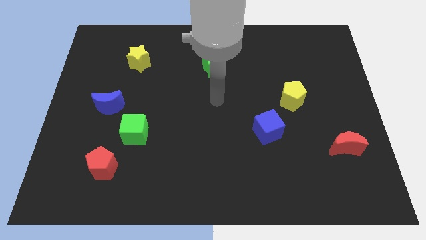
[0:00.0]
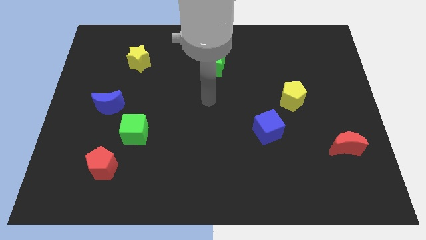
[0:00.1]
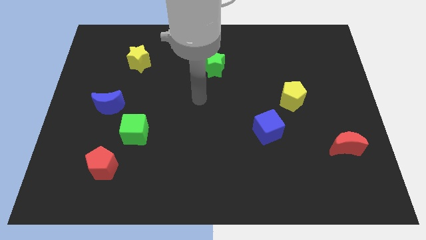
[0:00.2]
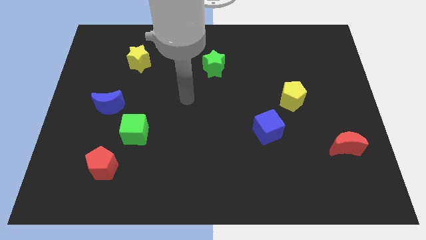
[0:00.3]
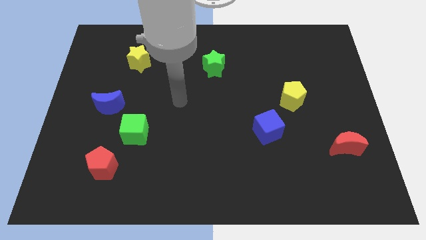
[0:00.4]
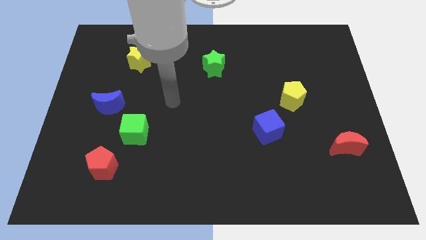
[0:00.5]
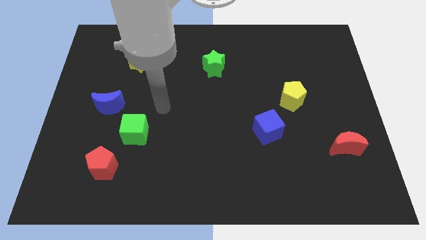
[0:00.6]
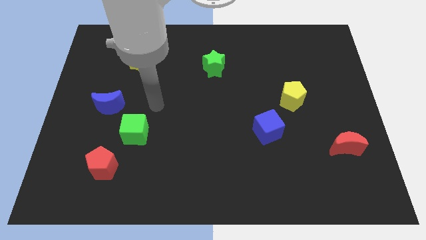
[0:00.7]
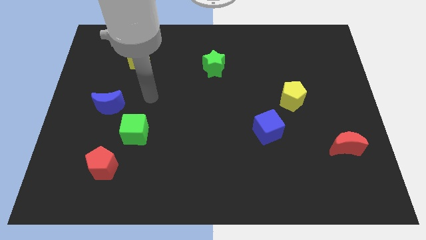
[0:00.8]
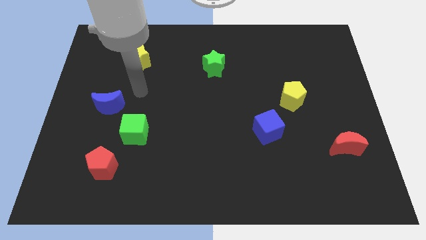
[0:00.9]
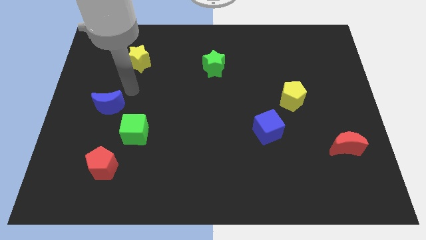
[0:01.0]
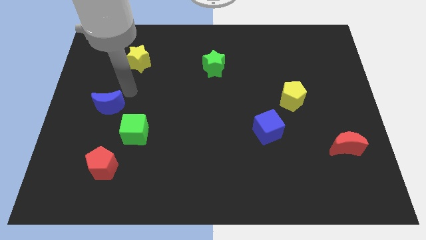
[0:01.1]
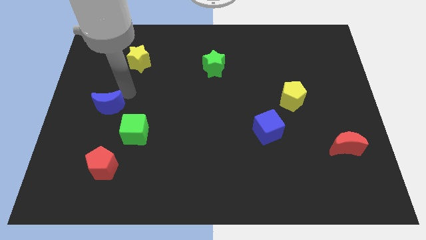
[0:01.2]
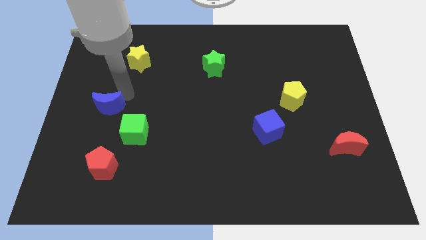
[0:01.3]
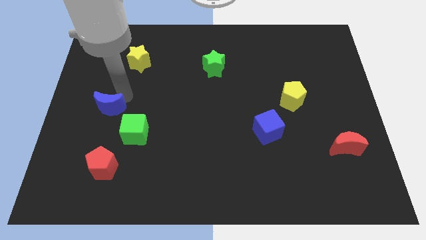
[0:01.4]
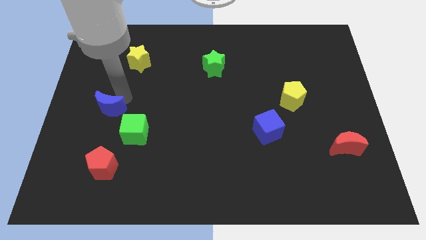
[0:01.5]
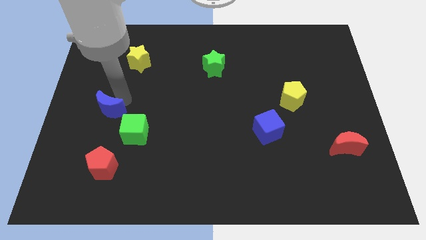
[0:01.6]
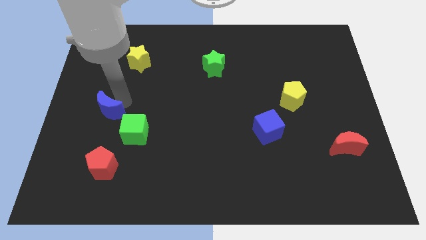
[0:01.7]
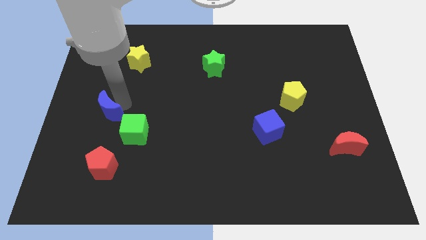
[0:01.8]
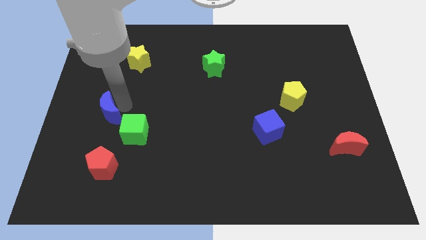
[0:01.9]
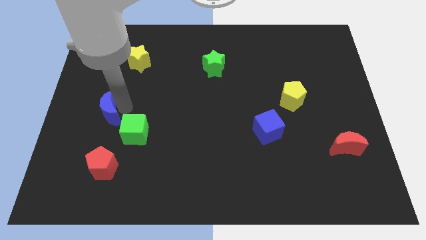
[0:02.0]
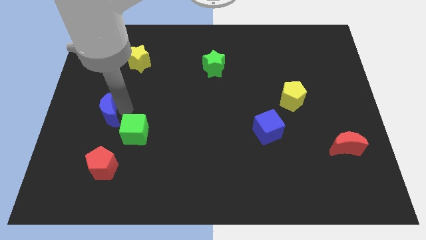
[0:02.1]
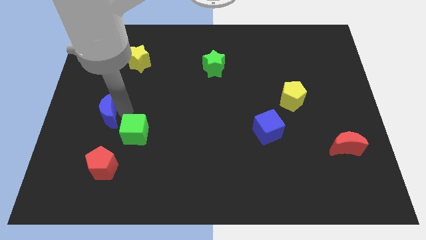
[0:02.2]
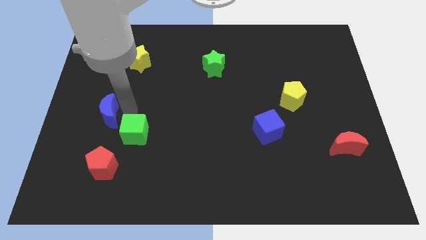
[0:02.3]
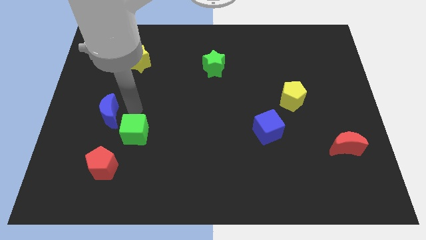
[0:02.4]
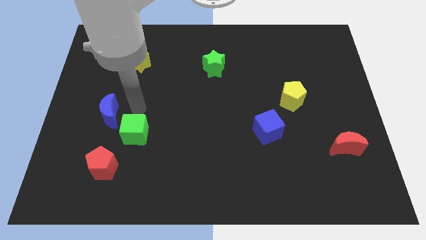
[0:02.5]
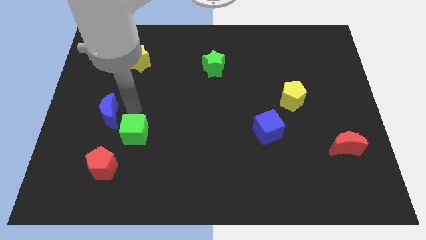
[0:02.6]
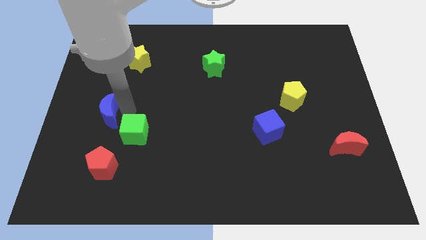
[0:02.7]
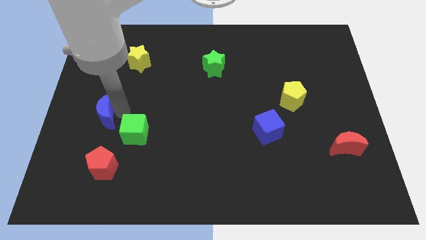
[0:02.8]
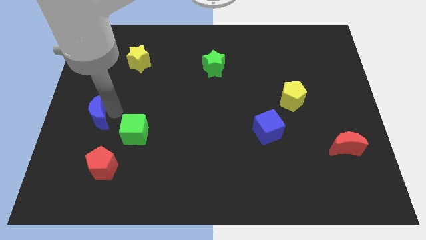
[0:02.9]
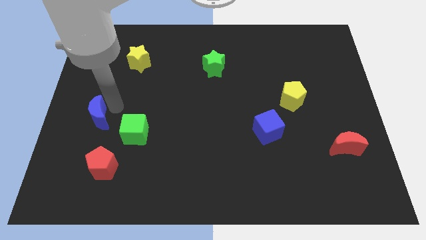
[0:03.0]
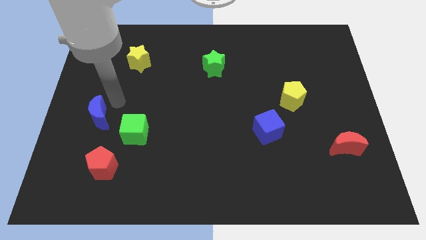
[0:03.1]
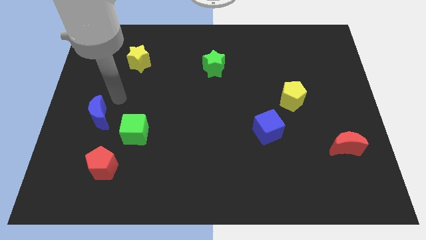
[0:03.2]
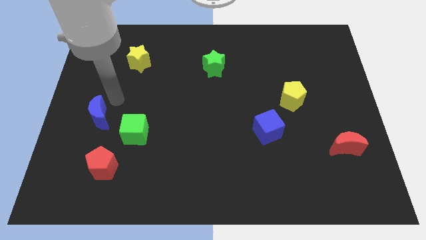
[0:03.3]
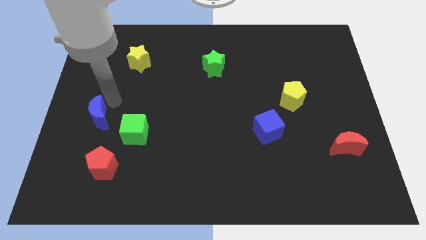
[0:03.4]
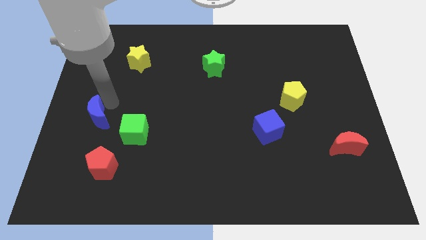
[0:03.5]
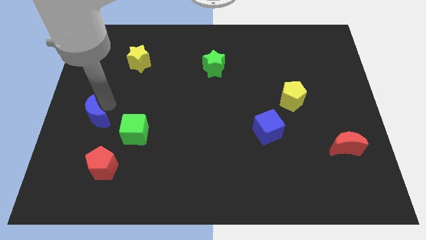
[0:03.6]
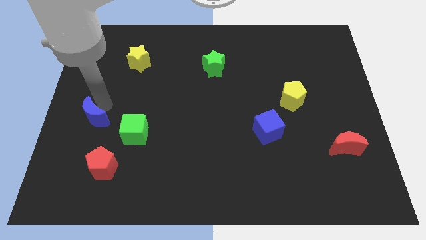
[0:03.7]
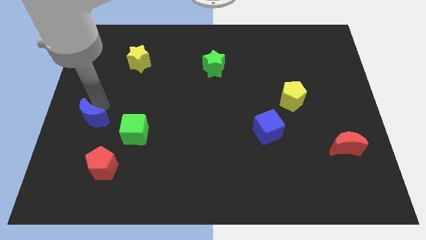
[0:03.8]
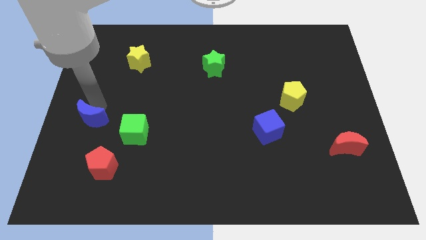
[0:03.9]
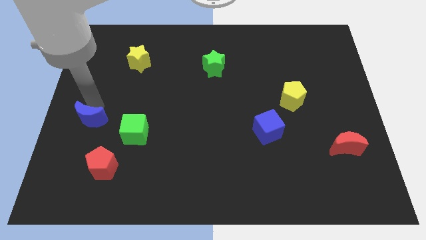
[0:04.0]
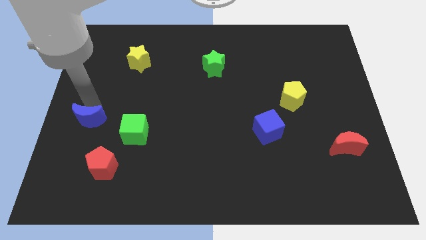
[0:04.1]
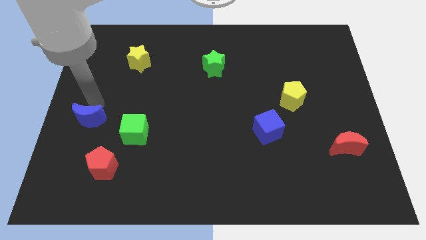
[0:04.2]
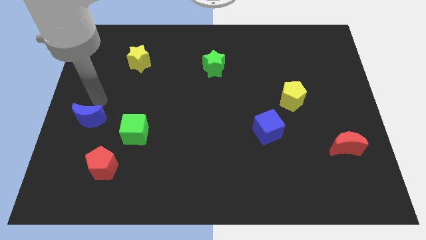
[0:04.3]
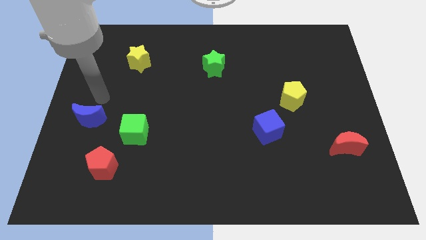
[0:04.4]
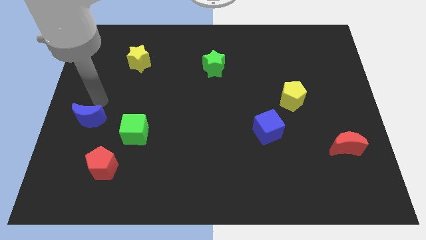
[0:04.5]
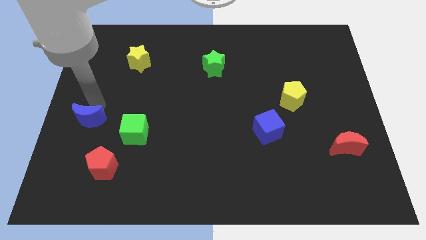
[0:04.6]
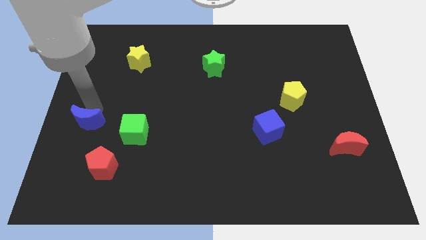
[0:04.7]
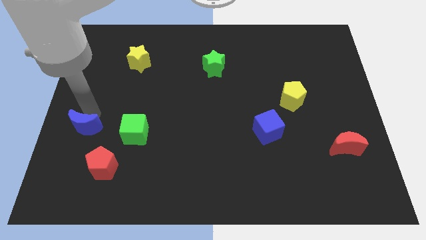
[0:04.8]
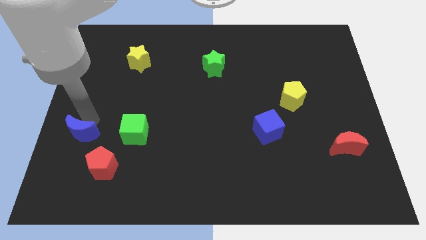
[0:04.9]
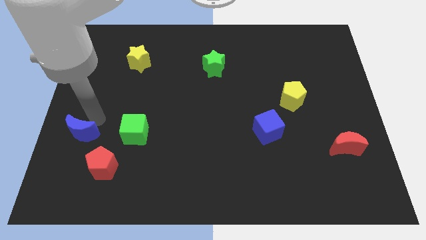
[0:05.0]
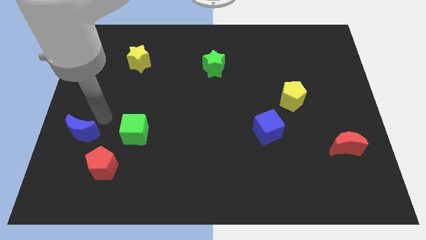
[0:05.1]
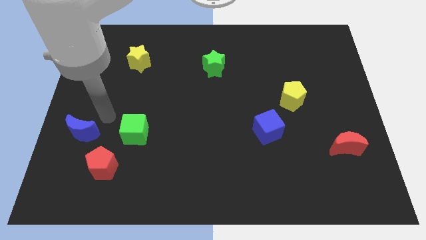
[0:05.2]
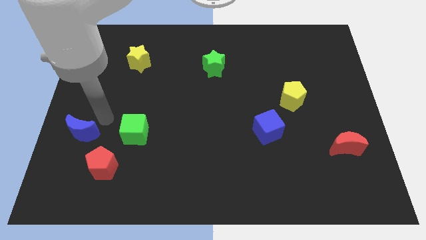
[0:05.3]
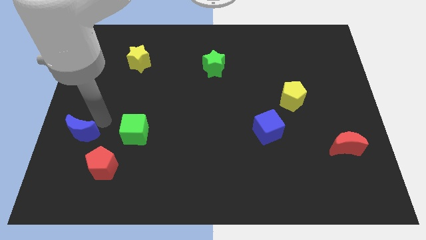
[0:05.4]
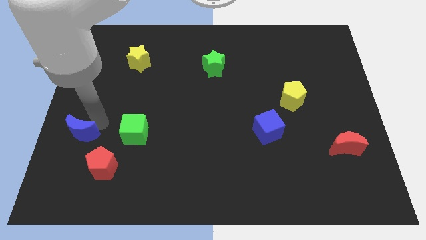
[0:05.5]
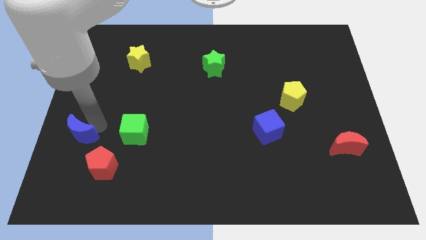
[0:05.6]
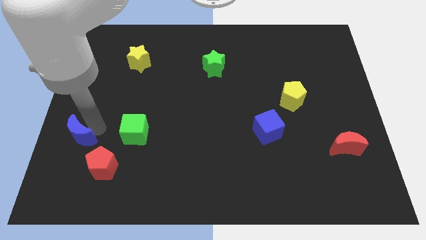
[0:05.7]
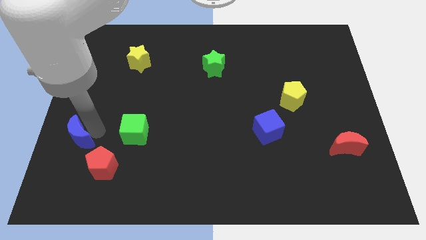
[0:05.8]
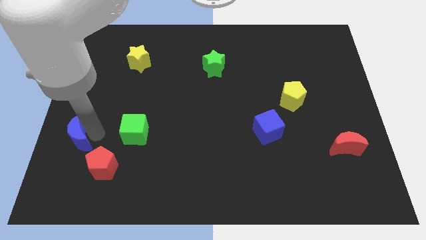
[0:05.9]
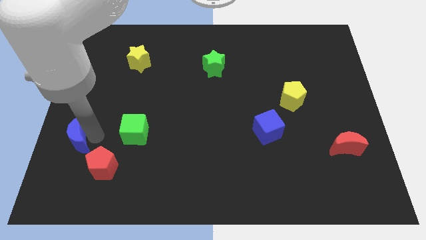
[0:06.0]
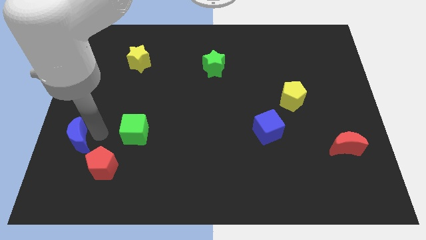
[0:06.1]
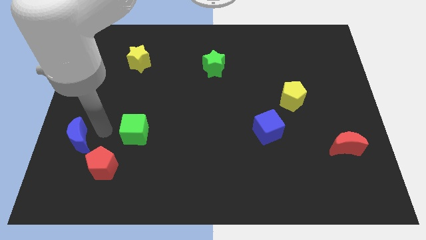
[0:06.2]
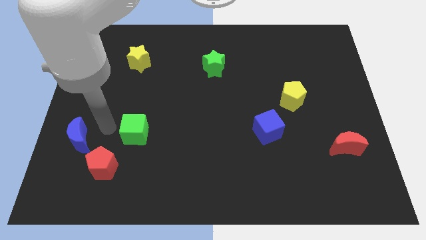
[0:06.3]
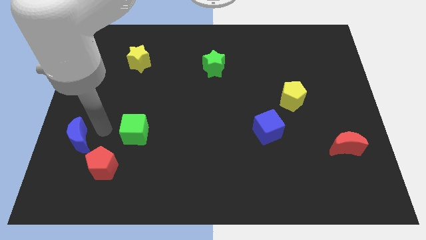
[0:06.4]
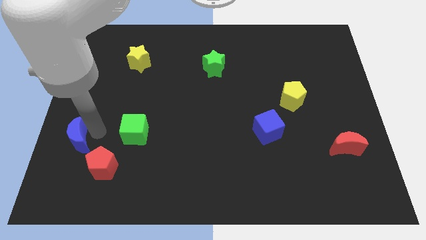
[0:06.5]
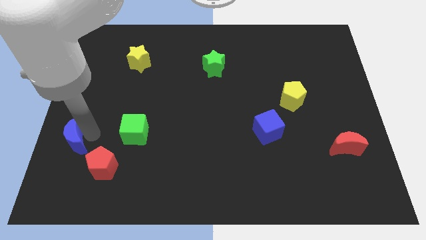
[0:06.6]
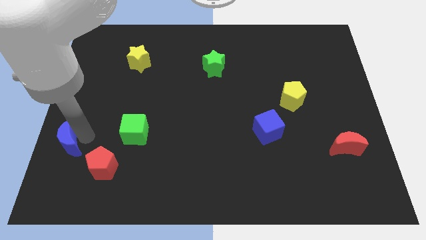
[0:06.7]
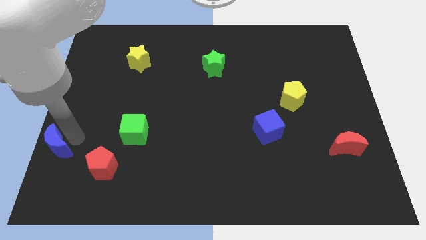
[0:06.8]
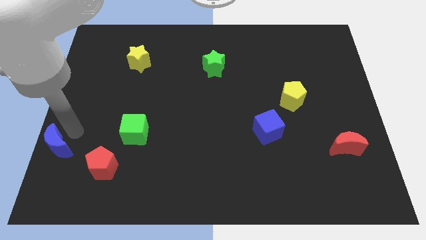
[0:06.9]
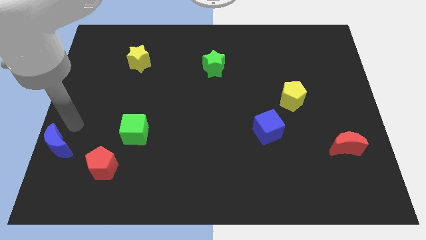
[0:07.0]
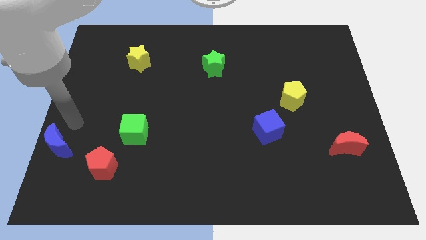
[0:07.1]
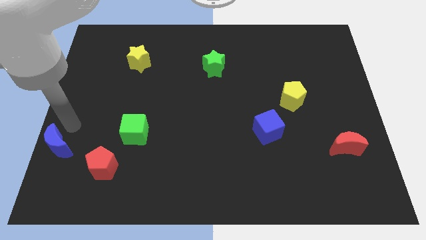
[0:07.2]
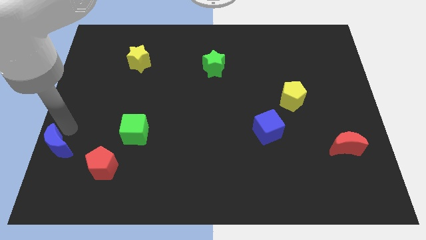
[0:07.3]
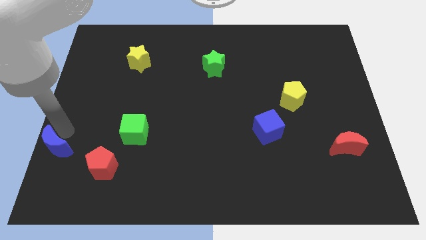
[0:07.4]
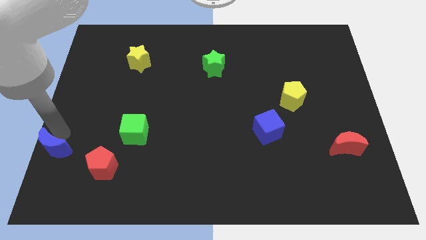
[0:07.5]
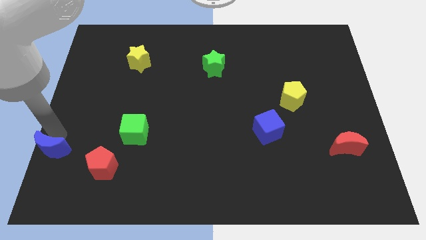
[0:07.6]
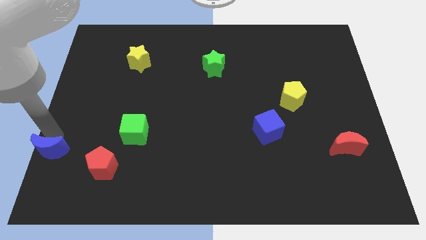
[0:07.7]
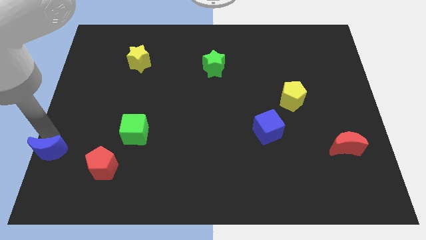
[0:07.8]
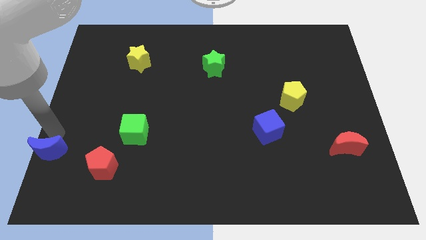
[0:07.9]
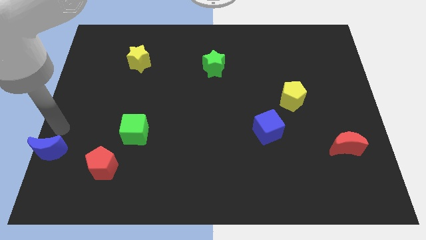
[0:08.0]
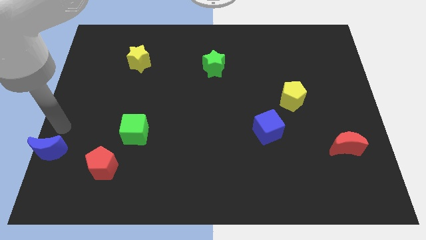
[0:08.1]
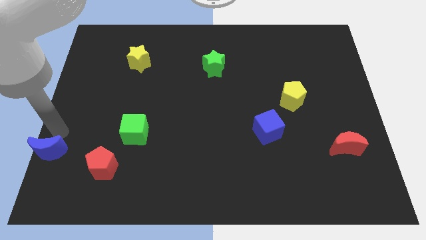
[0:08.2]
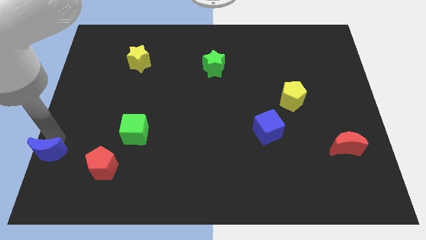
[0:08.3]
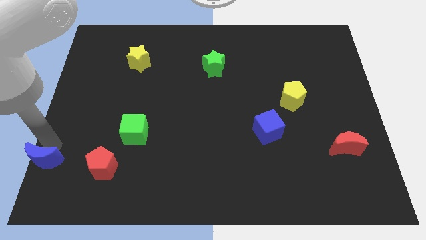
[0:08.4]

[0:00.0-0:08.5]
push the blue moon to the bottom left of the board
